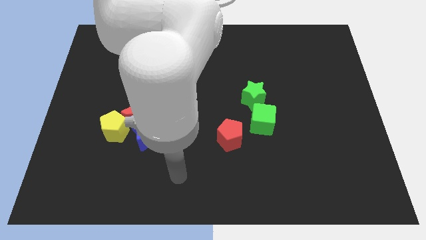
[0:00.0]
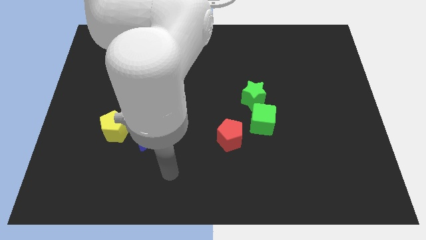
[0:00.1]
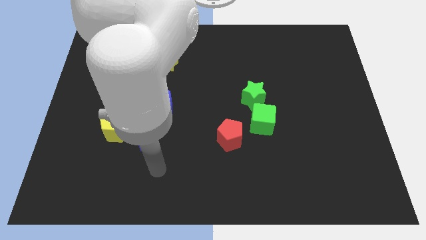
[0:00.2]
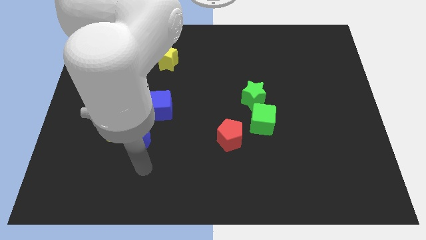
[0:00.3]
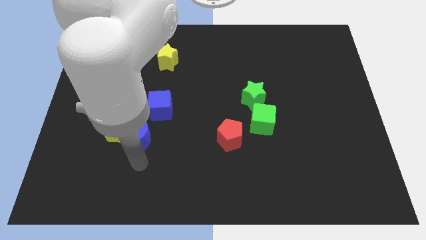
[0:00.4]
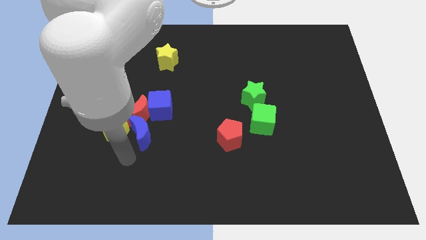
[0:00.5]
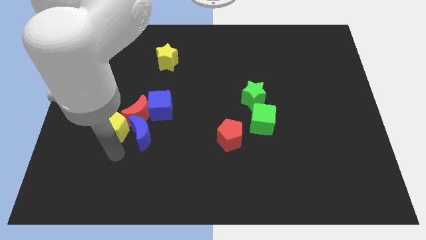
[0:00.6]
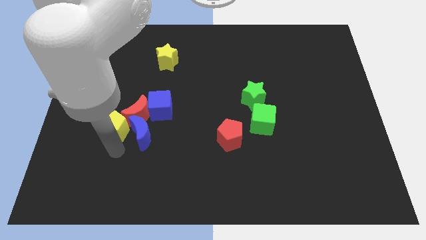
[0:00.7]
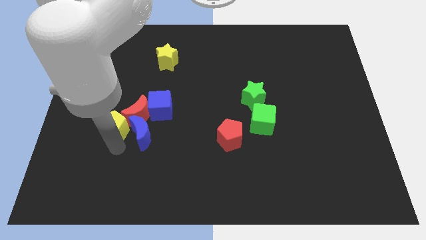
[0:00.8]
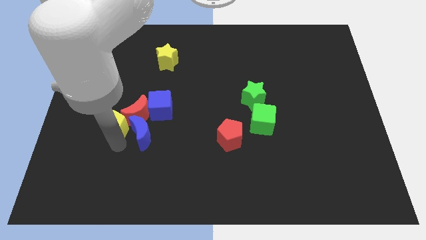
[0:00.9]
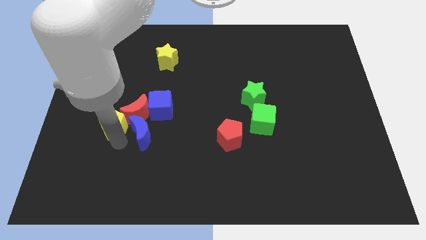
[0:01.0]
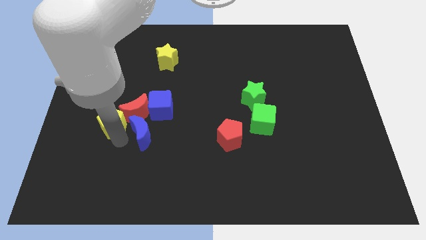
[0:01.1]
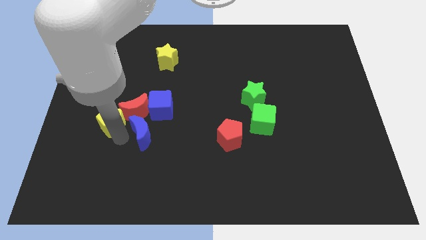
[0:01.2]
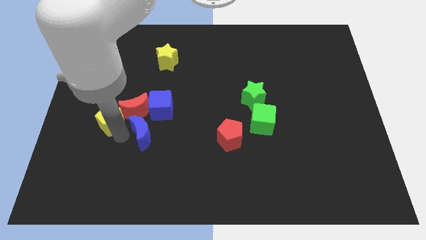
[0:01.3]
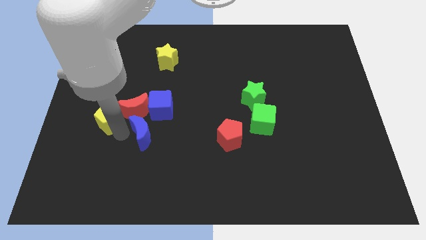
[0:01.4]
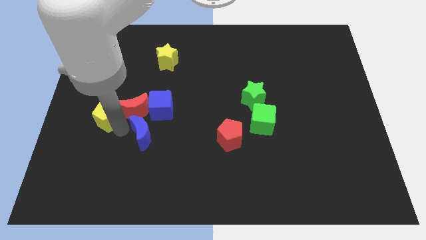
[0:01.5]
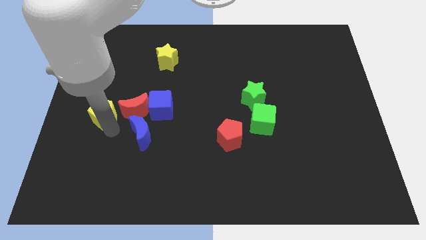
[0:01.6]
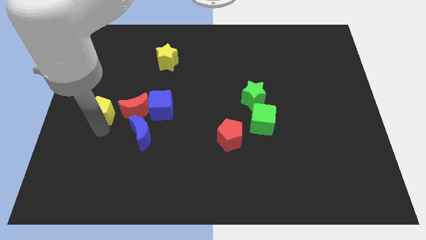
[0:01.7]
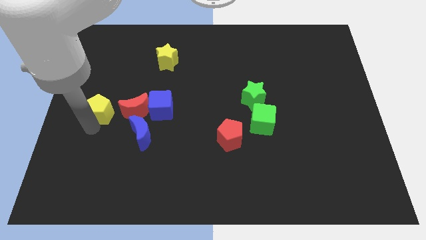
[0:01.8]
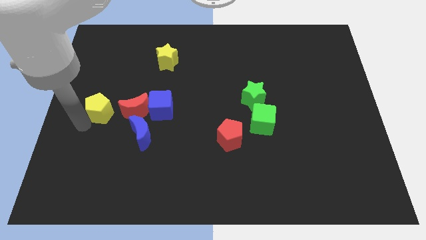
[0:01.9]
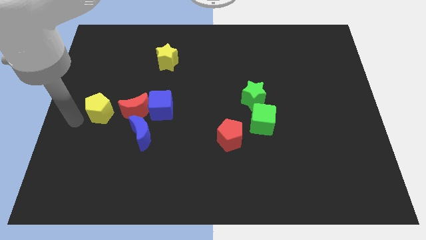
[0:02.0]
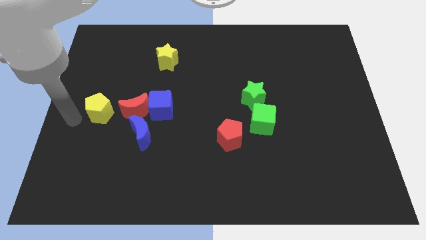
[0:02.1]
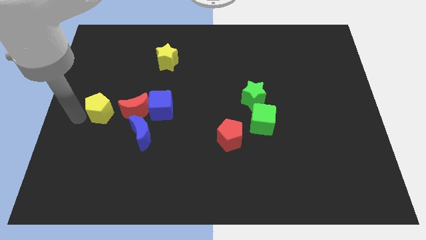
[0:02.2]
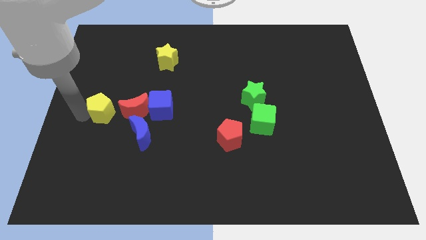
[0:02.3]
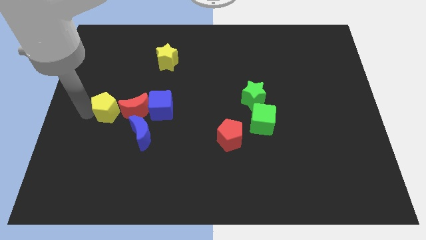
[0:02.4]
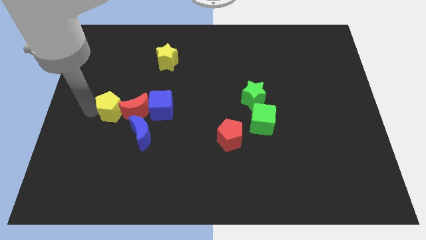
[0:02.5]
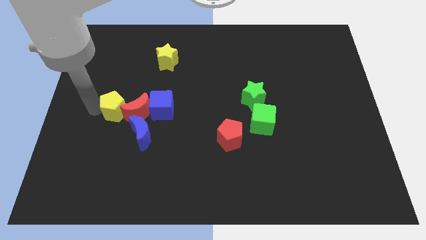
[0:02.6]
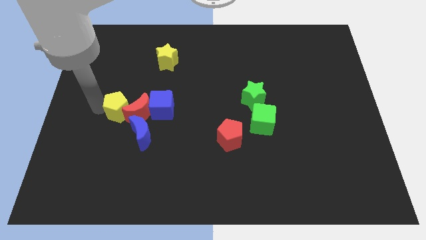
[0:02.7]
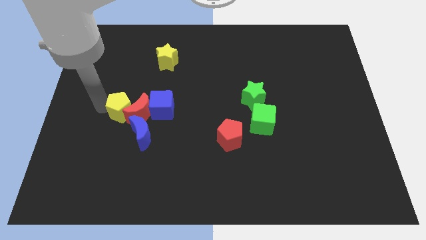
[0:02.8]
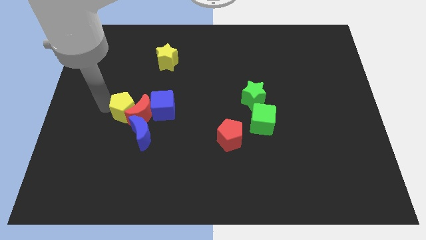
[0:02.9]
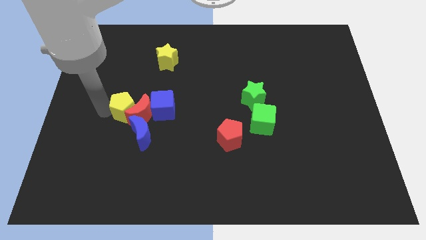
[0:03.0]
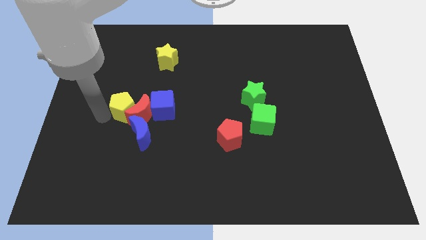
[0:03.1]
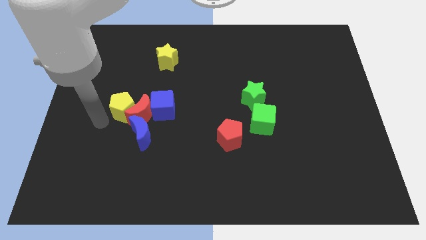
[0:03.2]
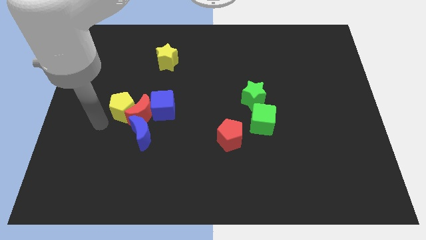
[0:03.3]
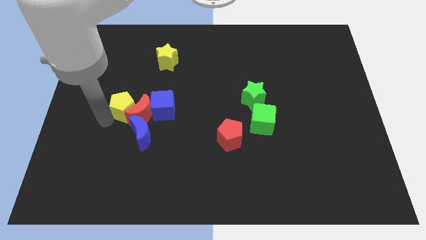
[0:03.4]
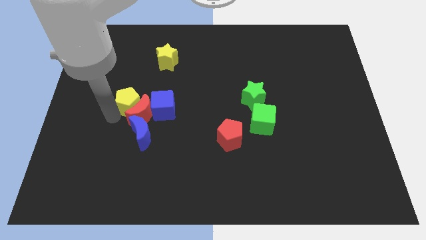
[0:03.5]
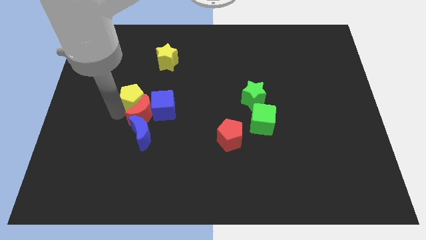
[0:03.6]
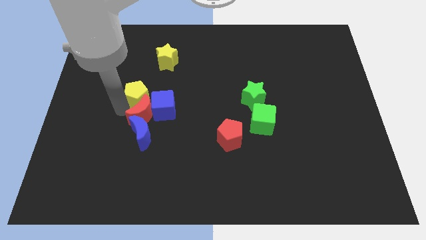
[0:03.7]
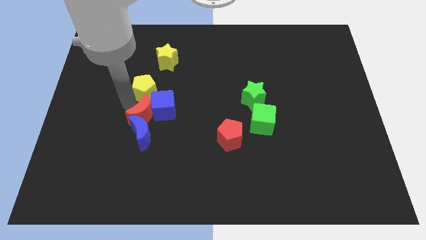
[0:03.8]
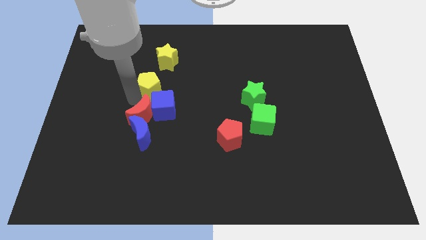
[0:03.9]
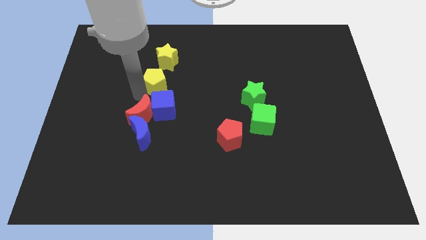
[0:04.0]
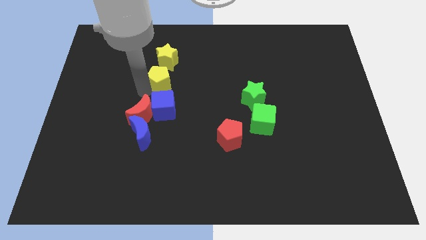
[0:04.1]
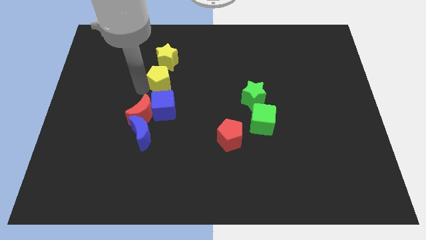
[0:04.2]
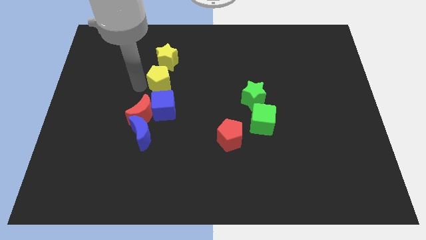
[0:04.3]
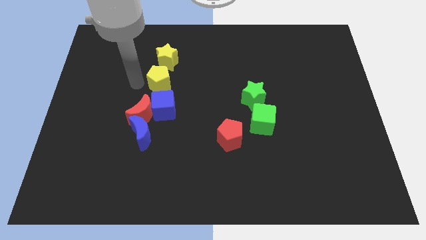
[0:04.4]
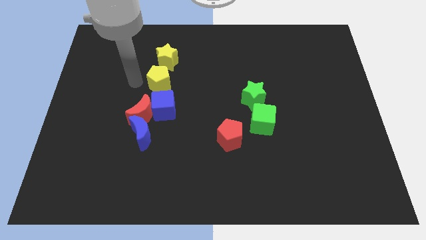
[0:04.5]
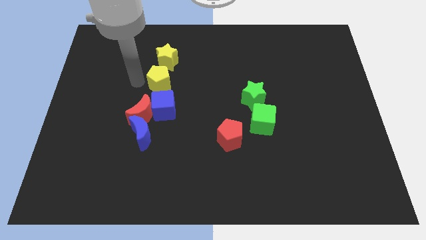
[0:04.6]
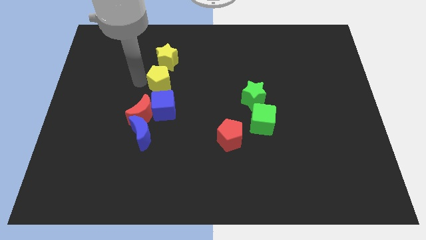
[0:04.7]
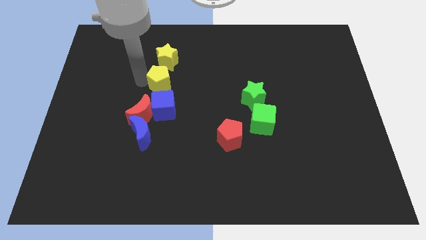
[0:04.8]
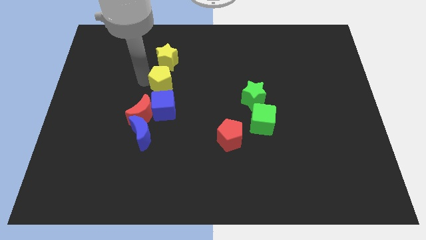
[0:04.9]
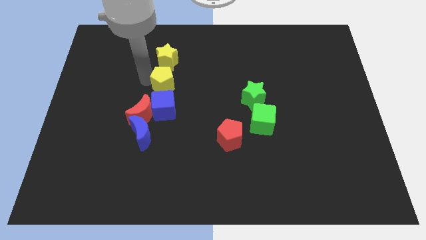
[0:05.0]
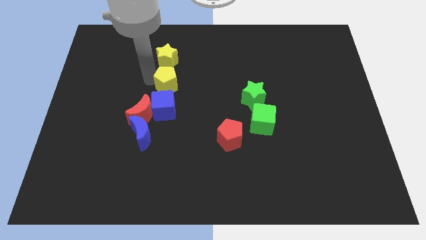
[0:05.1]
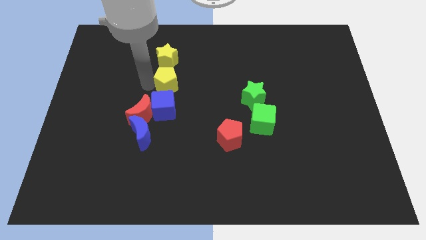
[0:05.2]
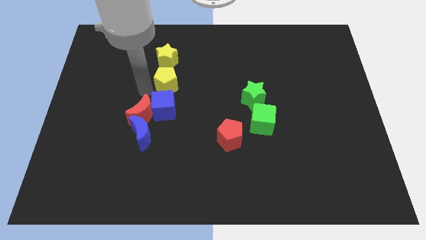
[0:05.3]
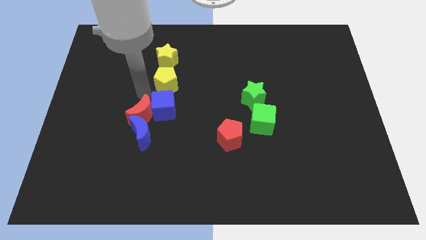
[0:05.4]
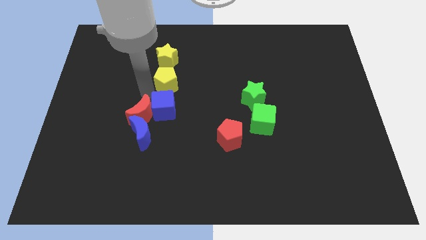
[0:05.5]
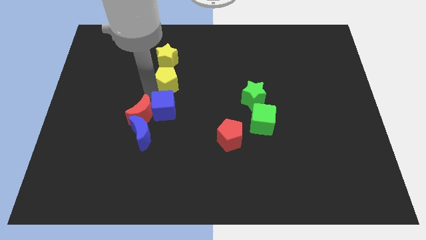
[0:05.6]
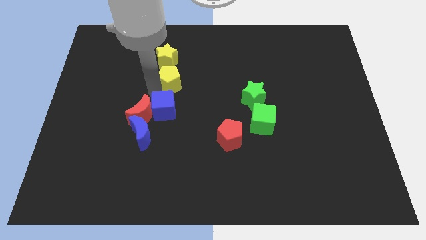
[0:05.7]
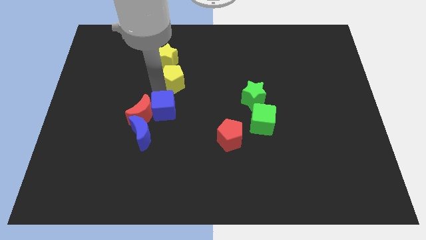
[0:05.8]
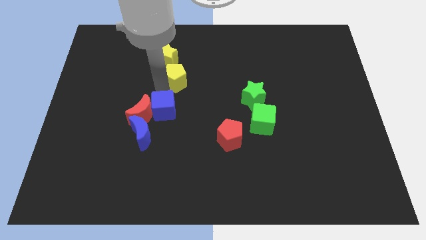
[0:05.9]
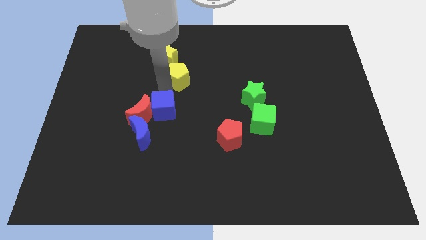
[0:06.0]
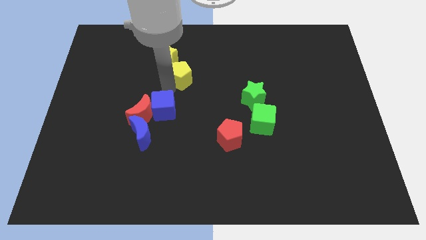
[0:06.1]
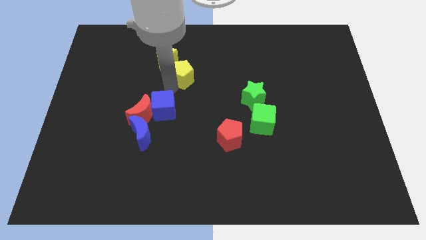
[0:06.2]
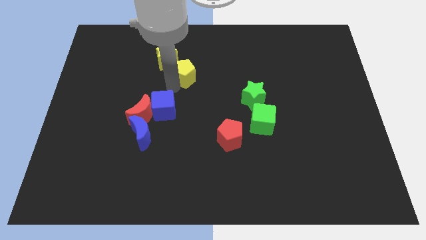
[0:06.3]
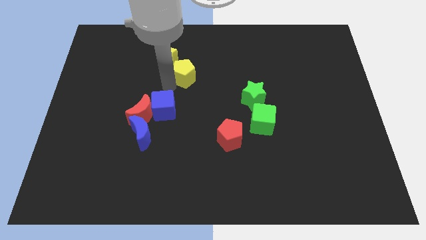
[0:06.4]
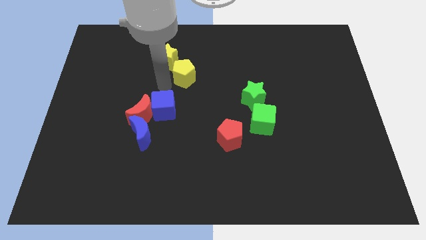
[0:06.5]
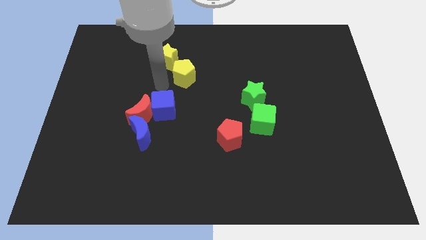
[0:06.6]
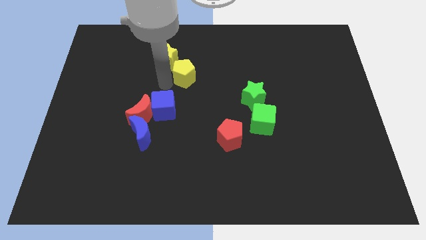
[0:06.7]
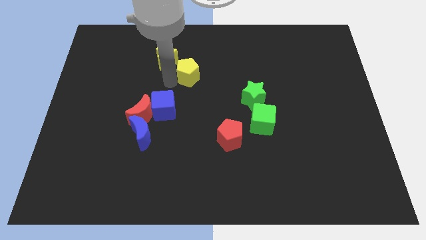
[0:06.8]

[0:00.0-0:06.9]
put the yellow pentagon to the right of the yellow star
